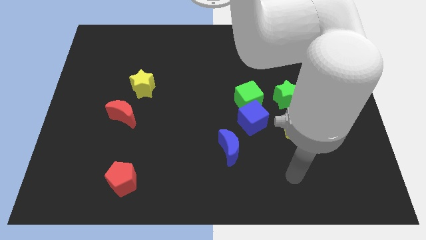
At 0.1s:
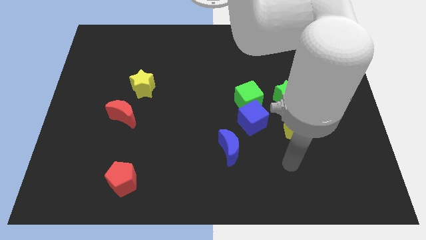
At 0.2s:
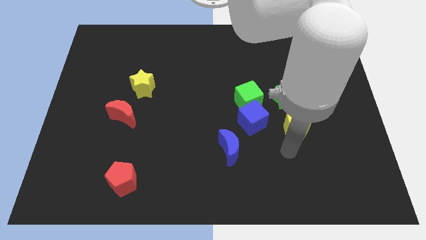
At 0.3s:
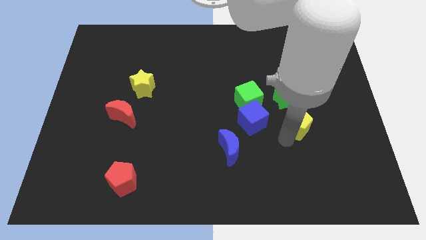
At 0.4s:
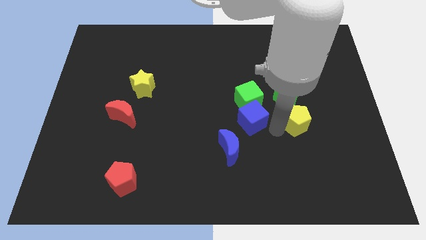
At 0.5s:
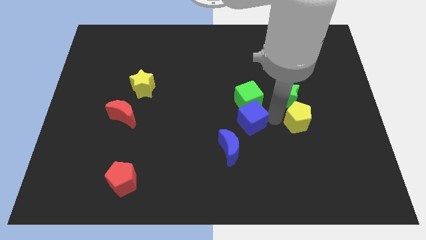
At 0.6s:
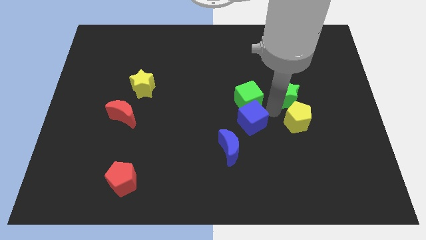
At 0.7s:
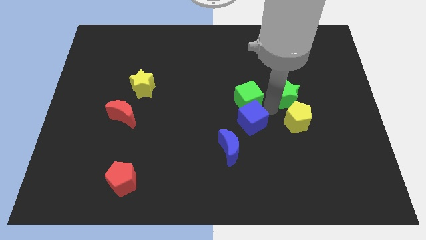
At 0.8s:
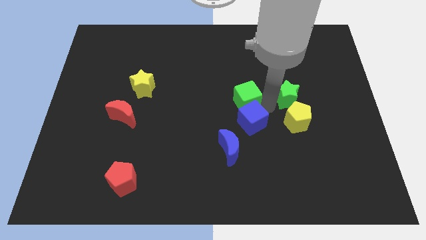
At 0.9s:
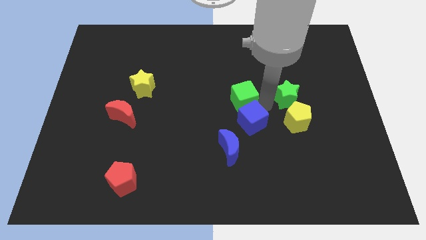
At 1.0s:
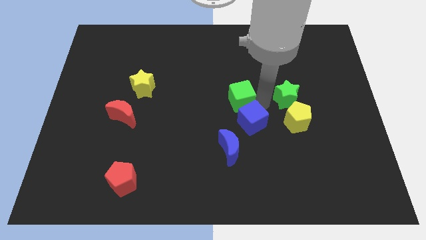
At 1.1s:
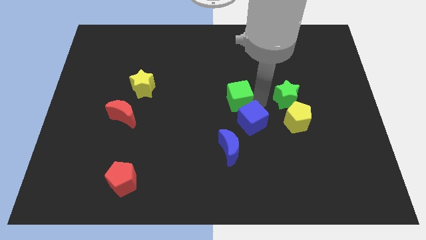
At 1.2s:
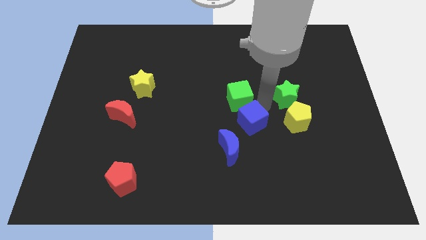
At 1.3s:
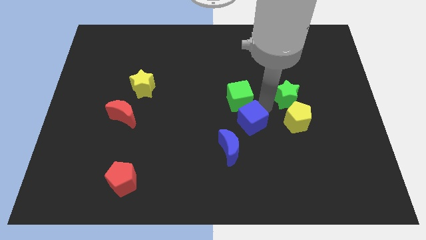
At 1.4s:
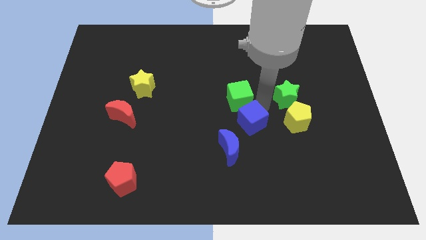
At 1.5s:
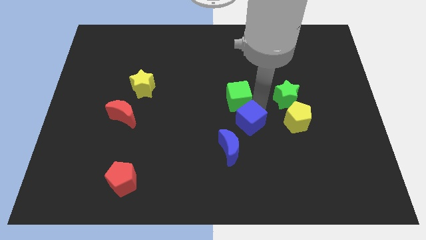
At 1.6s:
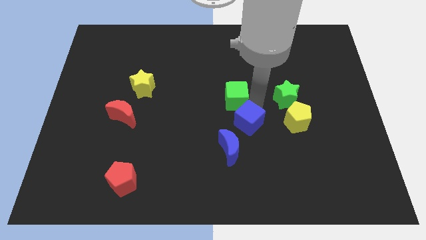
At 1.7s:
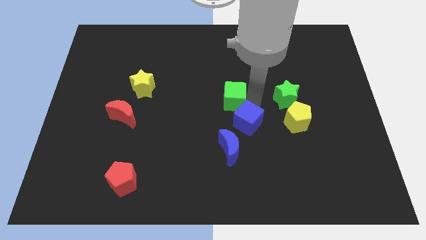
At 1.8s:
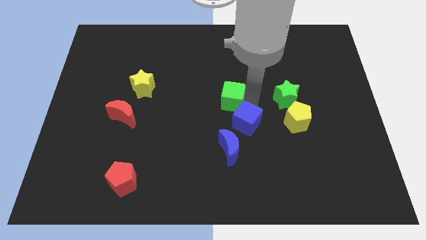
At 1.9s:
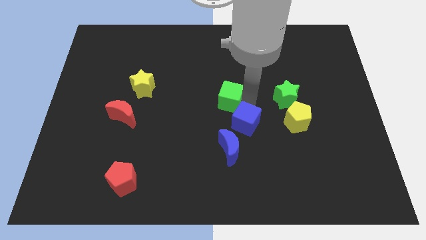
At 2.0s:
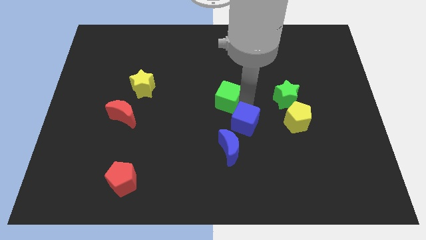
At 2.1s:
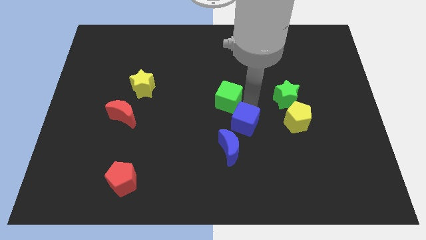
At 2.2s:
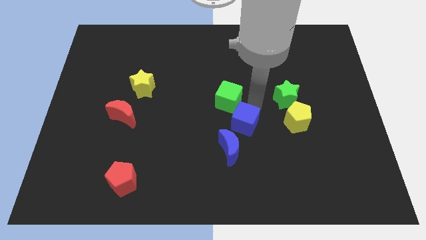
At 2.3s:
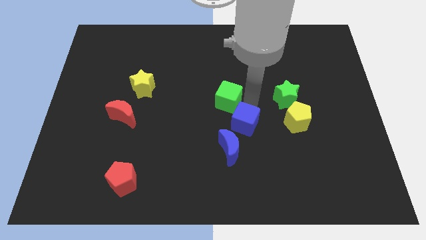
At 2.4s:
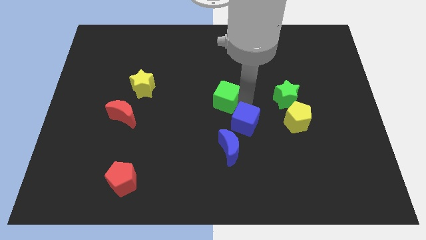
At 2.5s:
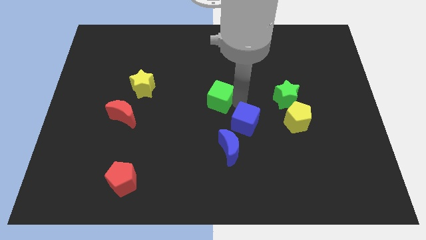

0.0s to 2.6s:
separate the green cube from the blue cube and green star

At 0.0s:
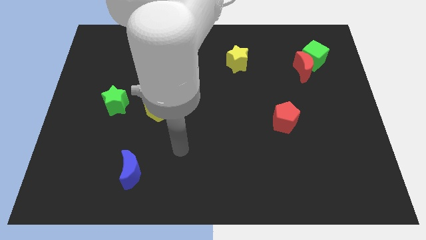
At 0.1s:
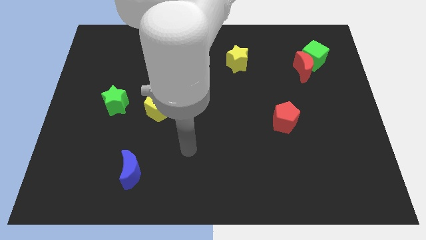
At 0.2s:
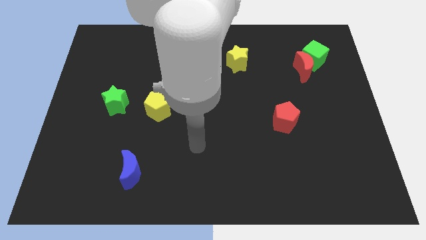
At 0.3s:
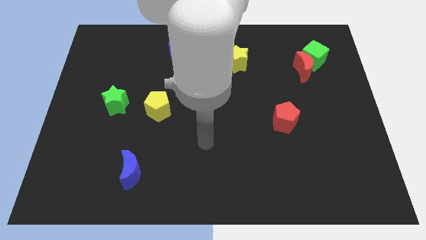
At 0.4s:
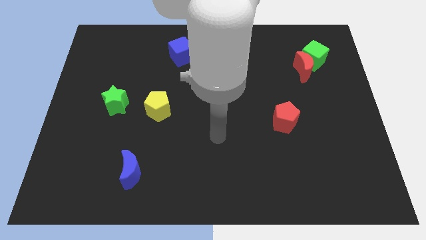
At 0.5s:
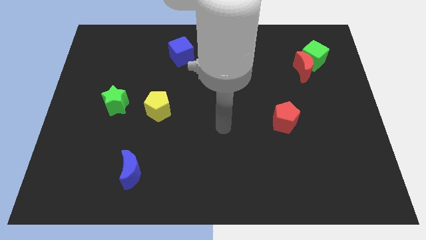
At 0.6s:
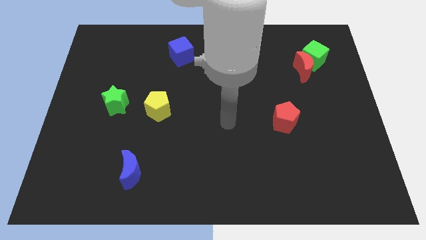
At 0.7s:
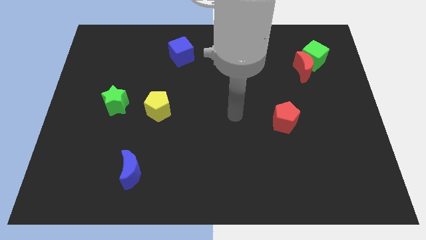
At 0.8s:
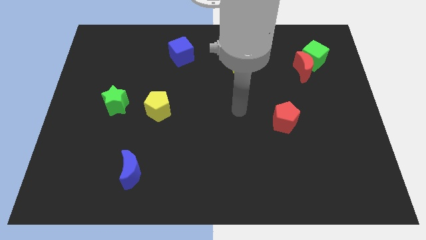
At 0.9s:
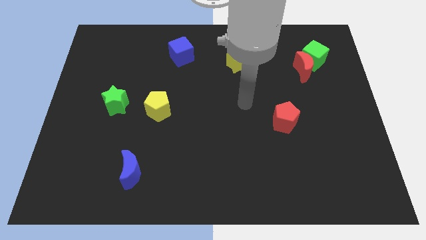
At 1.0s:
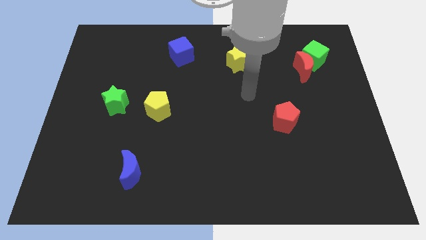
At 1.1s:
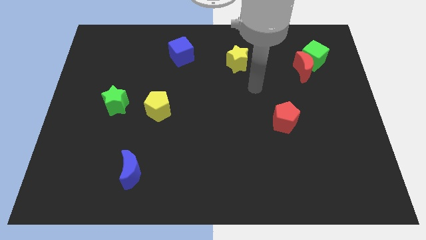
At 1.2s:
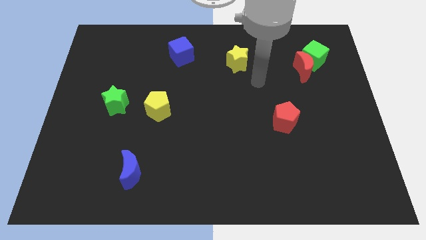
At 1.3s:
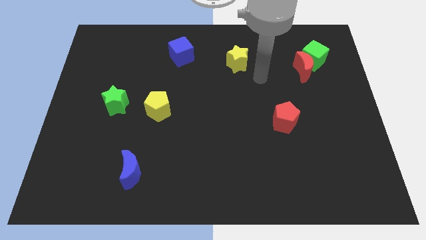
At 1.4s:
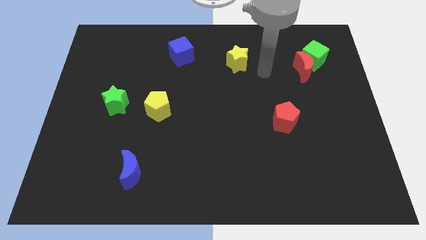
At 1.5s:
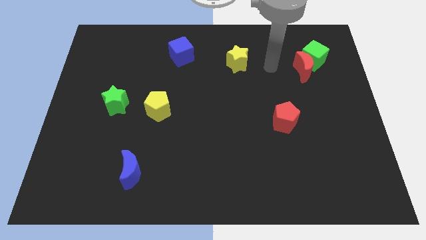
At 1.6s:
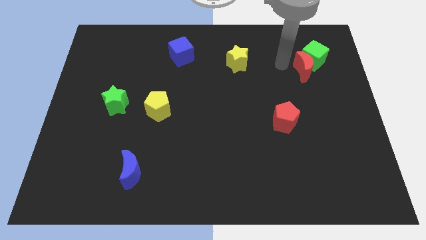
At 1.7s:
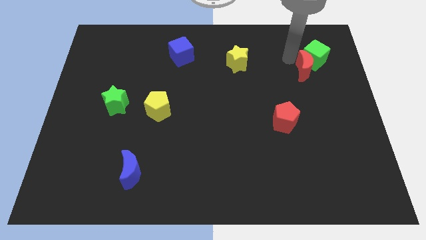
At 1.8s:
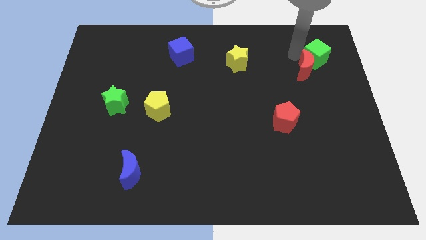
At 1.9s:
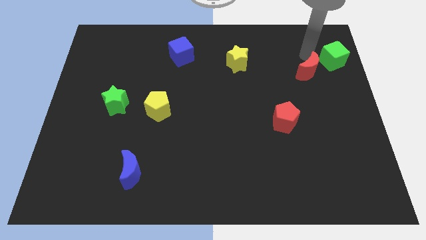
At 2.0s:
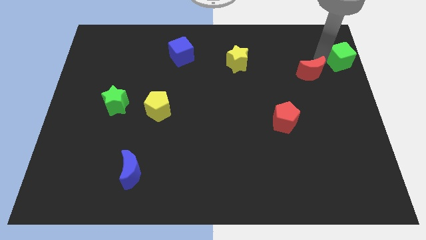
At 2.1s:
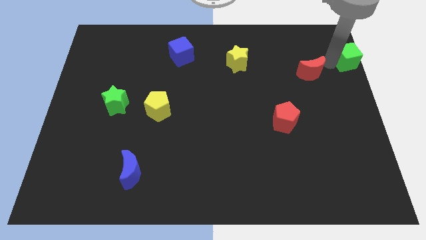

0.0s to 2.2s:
pull the red moon apart from the green cube

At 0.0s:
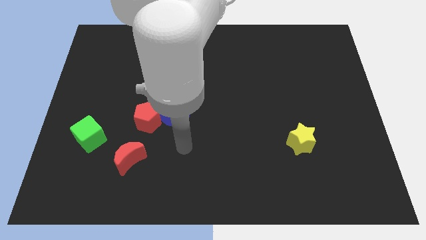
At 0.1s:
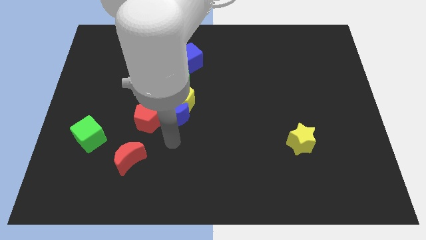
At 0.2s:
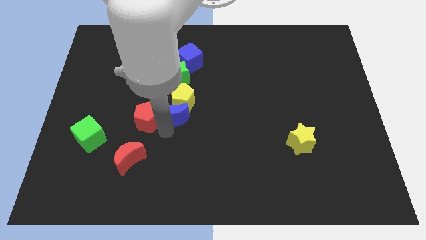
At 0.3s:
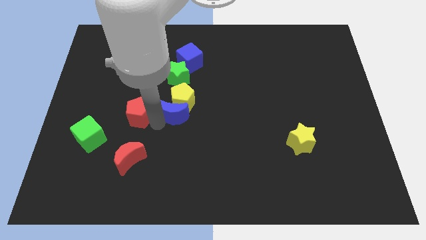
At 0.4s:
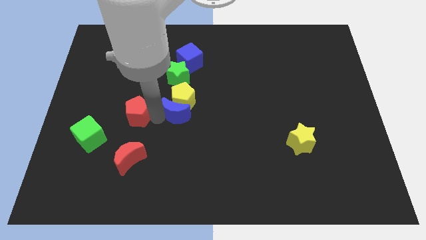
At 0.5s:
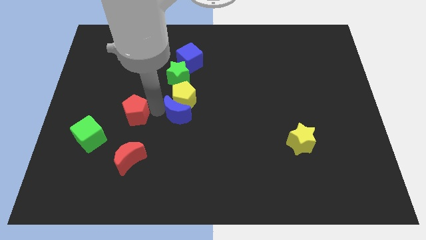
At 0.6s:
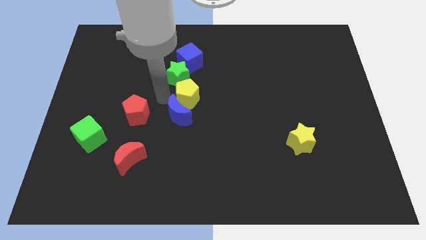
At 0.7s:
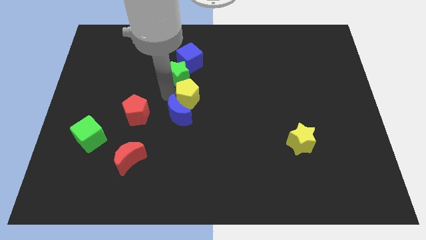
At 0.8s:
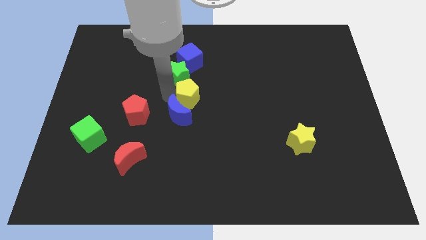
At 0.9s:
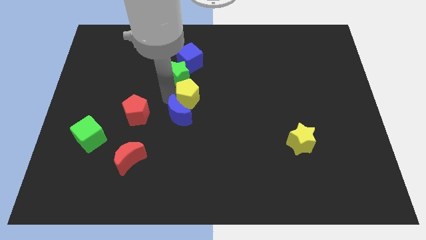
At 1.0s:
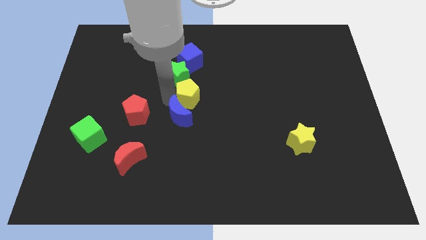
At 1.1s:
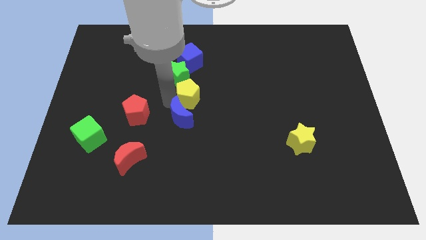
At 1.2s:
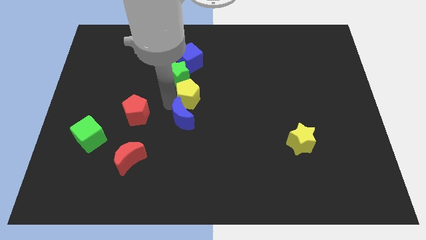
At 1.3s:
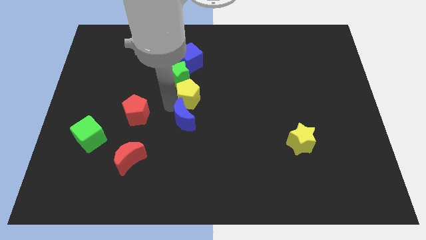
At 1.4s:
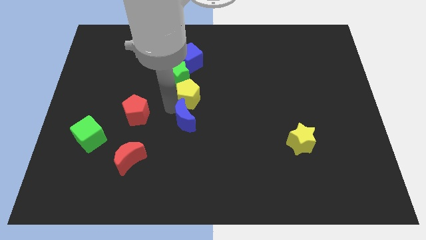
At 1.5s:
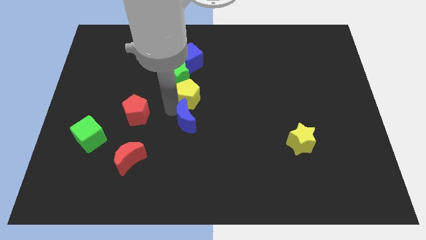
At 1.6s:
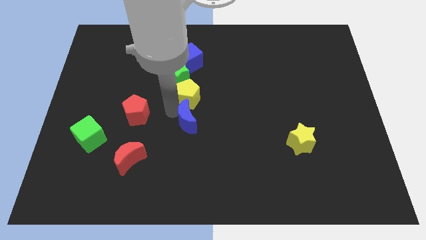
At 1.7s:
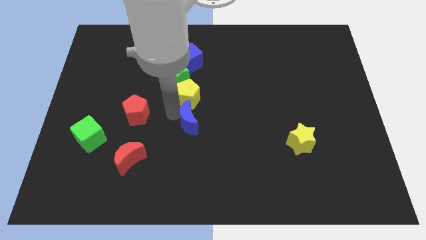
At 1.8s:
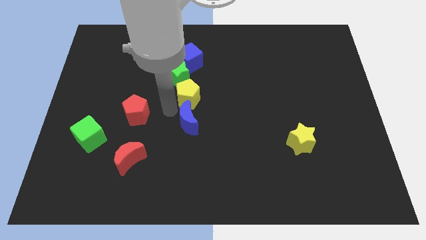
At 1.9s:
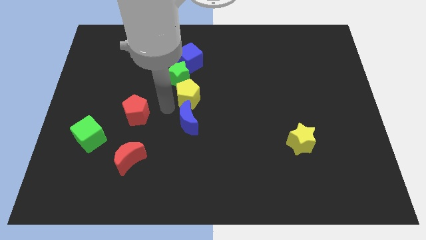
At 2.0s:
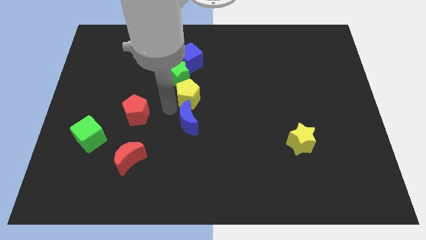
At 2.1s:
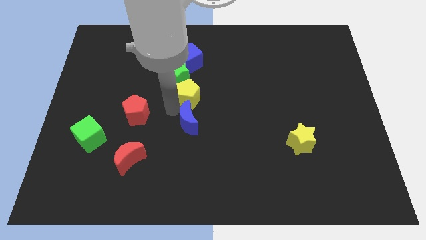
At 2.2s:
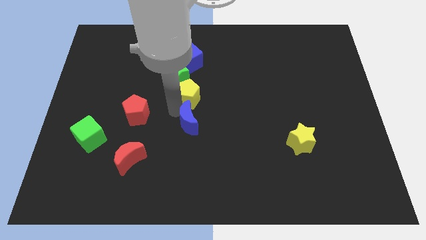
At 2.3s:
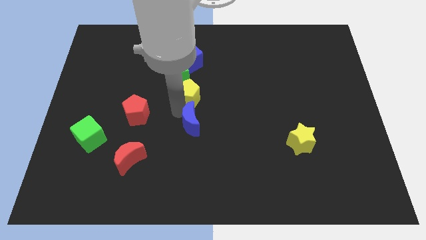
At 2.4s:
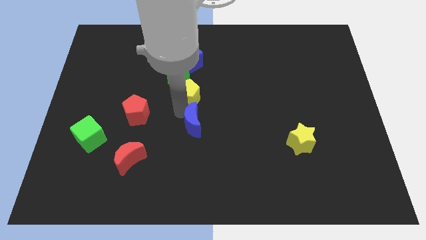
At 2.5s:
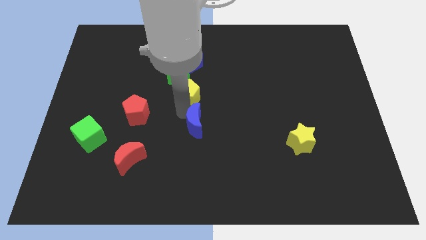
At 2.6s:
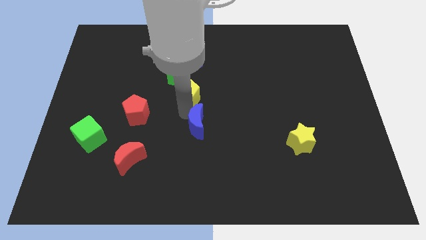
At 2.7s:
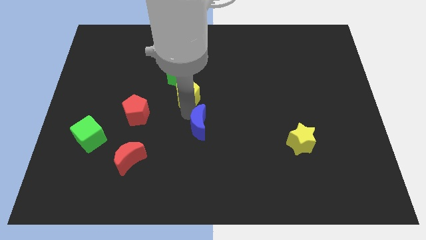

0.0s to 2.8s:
pull the blue moon apart from the yellow pentagon and red pentagon

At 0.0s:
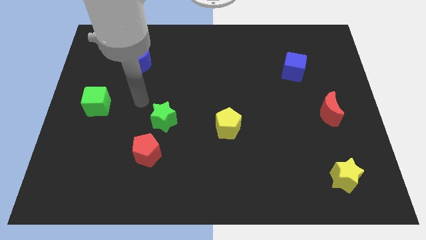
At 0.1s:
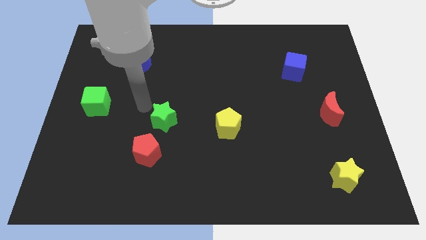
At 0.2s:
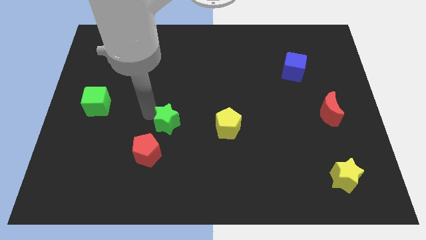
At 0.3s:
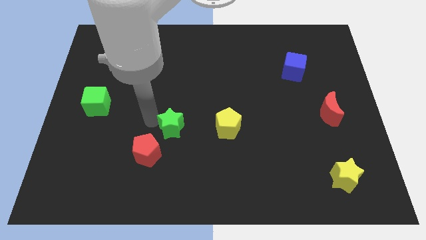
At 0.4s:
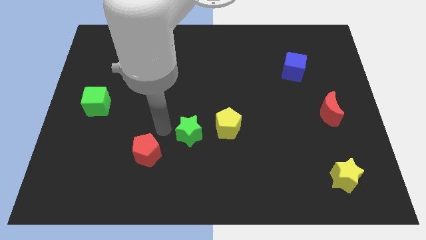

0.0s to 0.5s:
pull the red pentagon apart from the green star

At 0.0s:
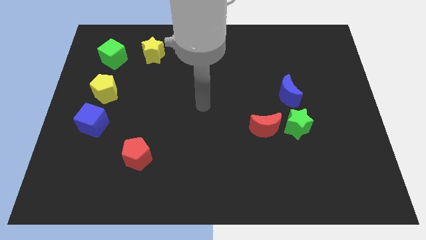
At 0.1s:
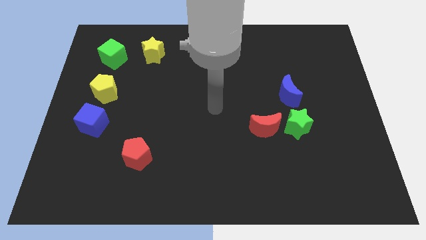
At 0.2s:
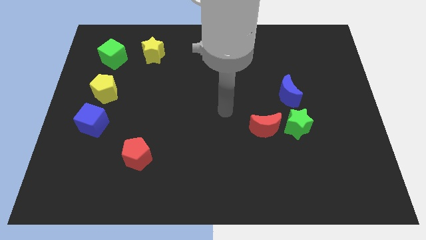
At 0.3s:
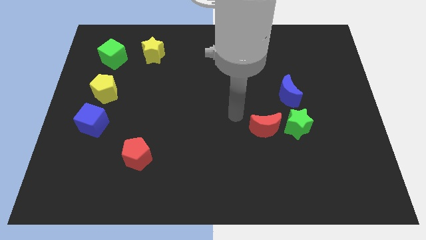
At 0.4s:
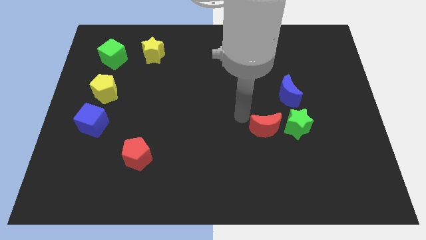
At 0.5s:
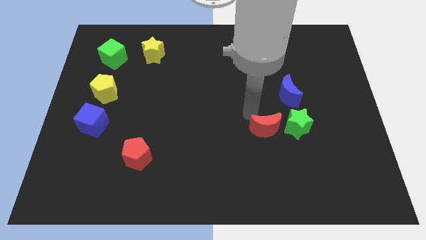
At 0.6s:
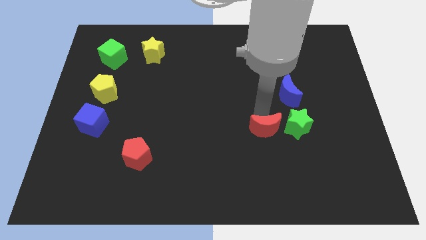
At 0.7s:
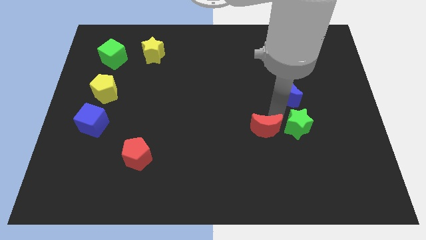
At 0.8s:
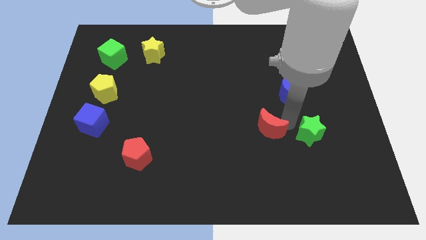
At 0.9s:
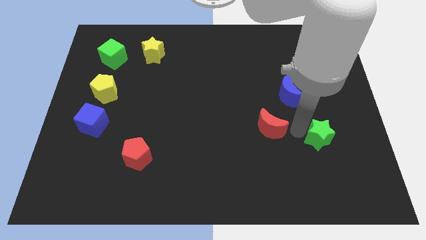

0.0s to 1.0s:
pull the red moon apart from the green star

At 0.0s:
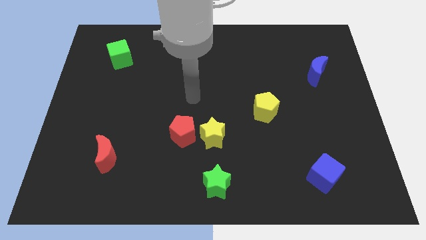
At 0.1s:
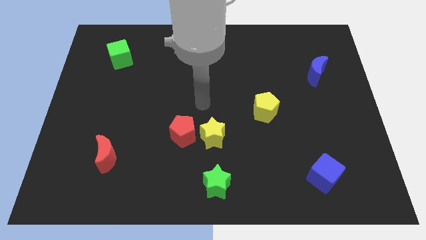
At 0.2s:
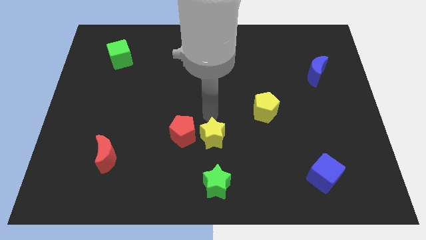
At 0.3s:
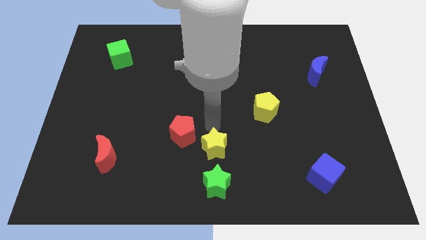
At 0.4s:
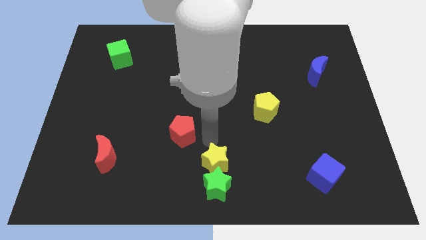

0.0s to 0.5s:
pull the red pentagon apart from the yellow star
